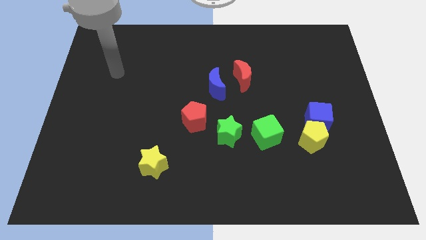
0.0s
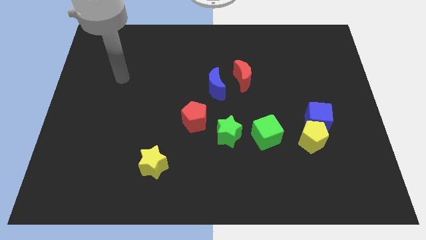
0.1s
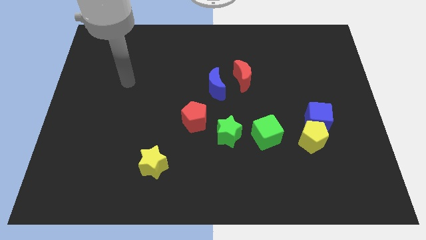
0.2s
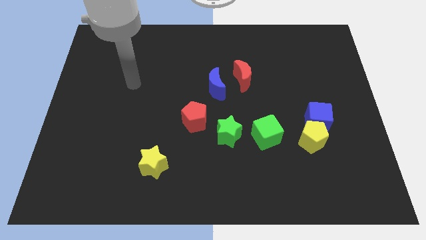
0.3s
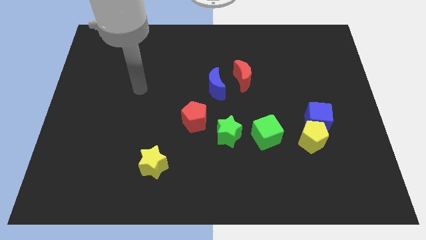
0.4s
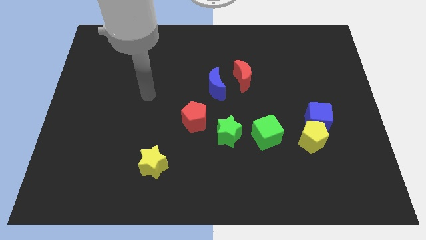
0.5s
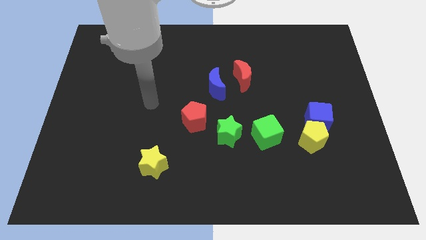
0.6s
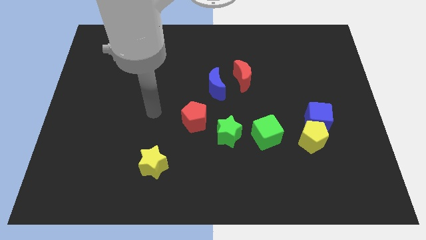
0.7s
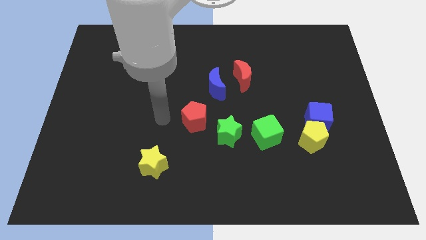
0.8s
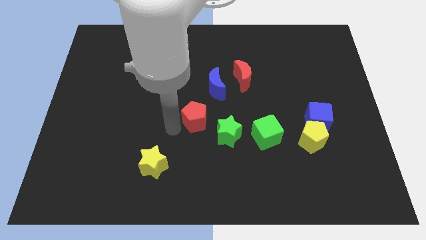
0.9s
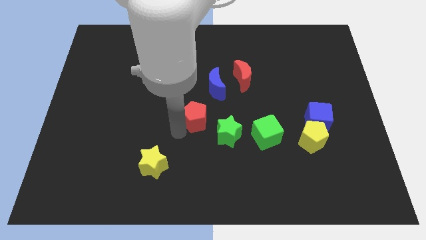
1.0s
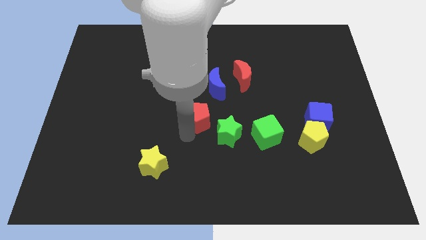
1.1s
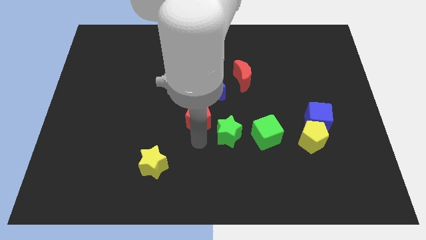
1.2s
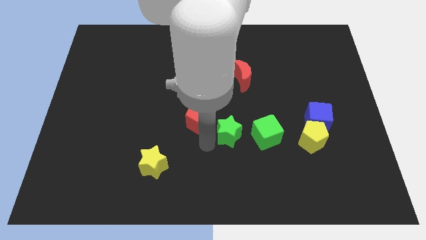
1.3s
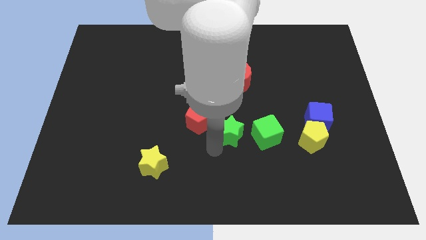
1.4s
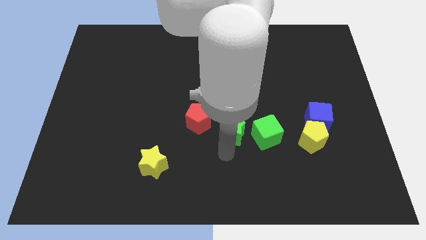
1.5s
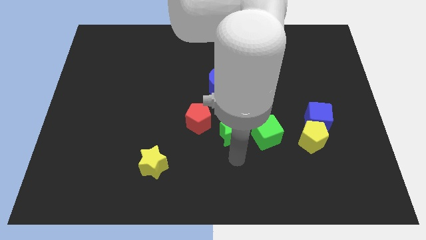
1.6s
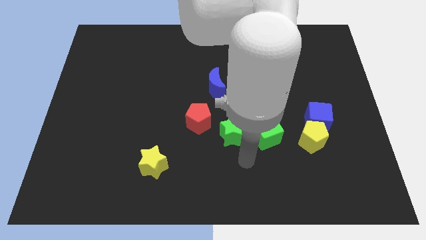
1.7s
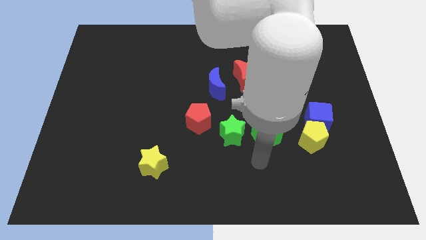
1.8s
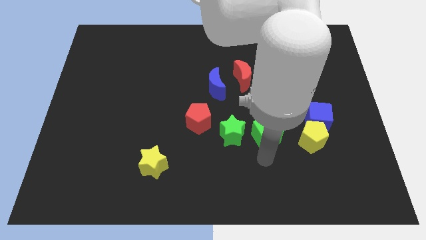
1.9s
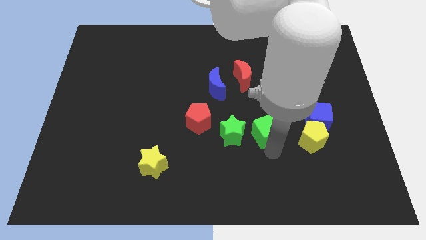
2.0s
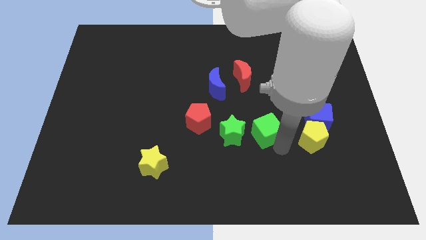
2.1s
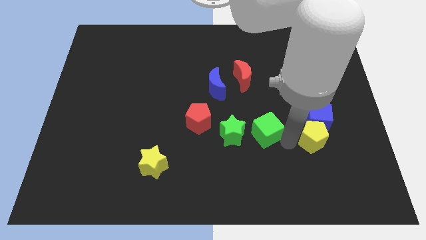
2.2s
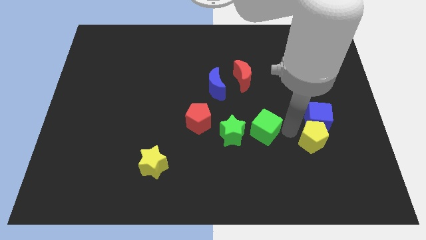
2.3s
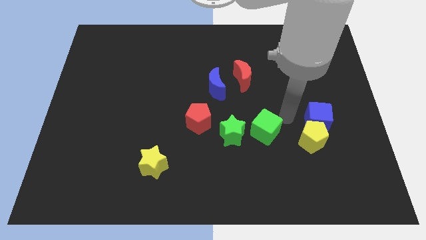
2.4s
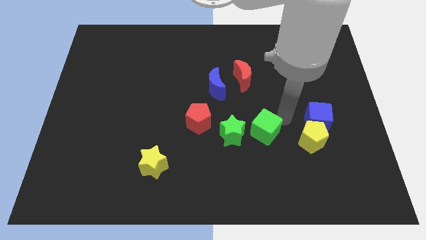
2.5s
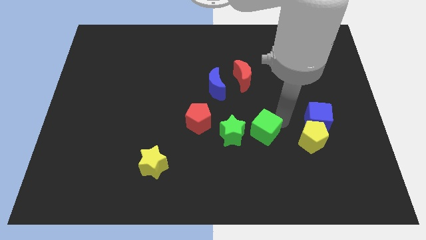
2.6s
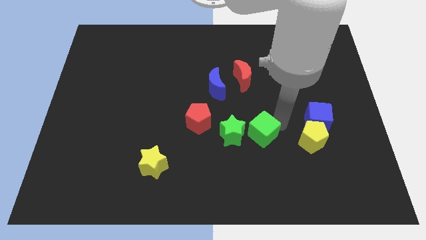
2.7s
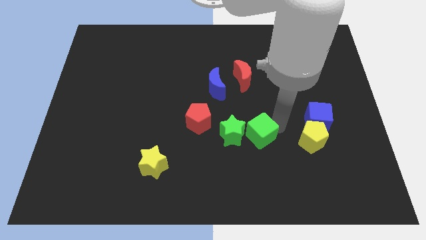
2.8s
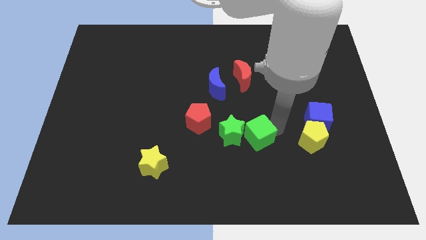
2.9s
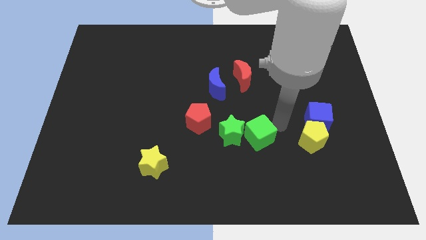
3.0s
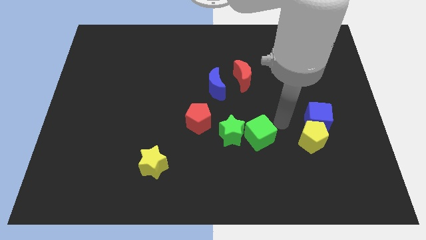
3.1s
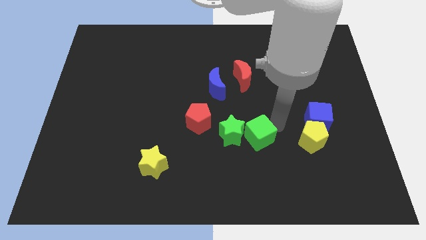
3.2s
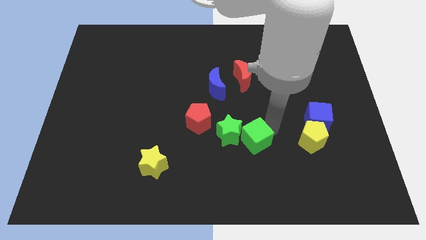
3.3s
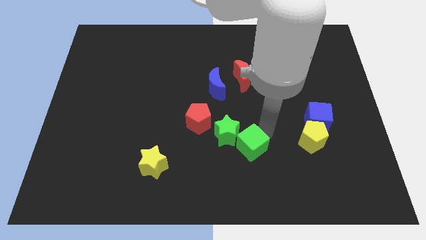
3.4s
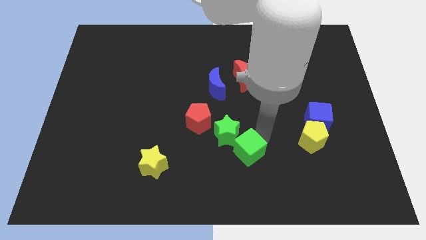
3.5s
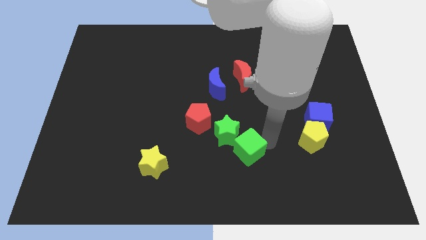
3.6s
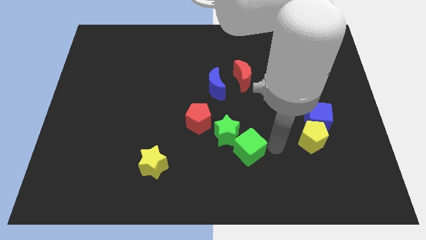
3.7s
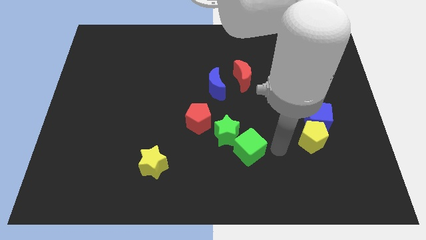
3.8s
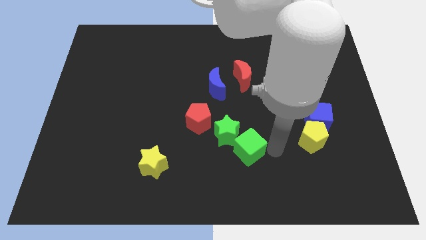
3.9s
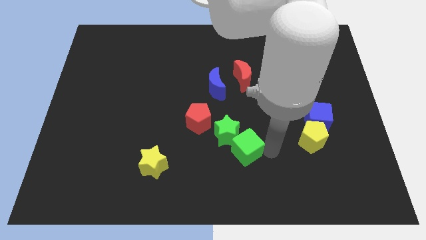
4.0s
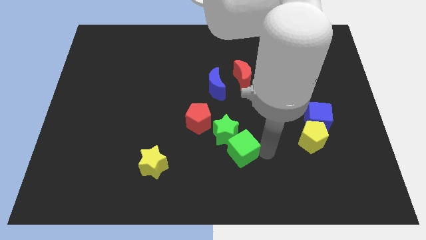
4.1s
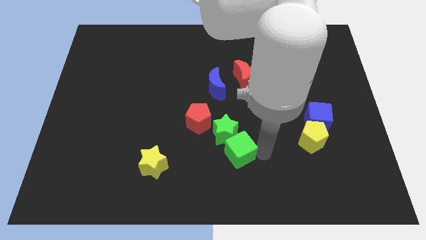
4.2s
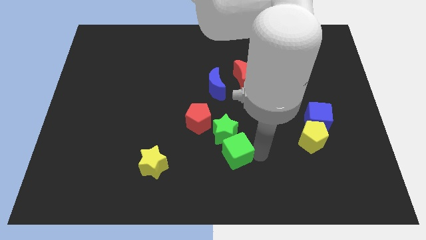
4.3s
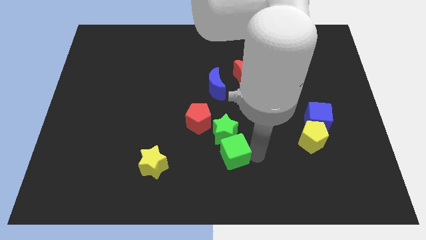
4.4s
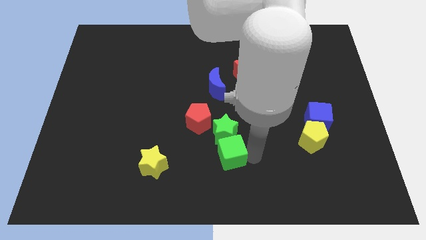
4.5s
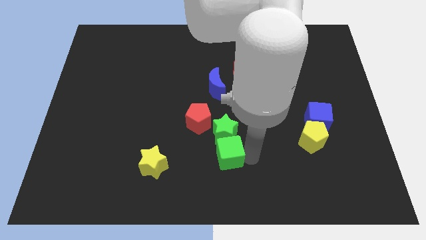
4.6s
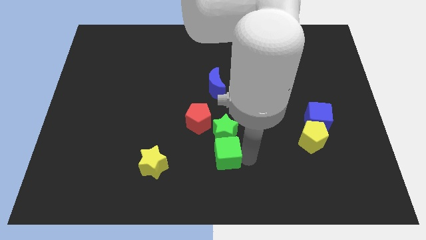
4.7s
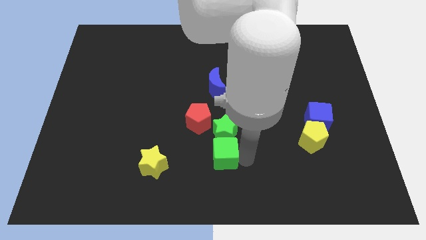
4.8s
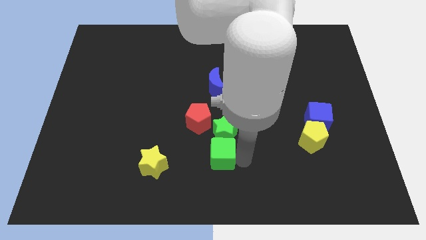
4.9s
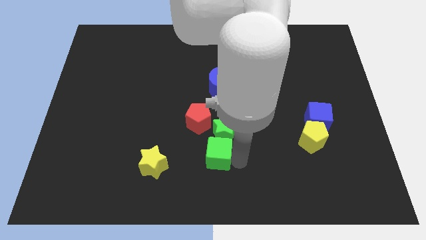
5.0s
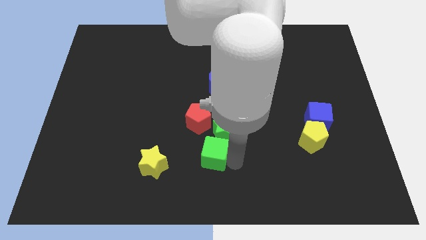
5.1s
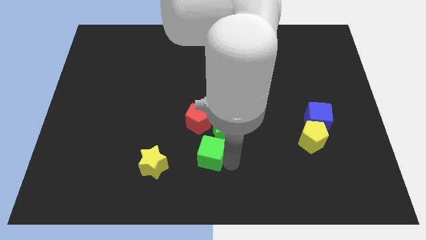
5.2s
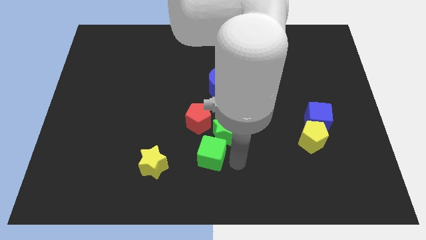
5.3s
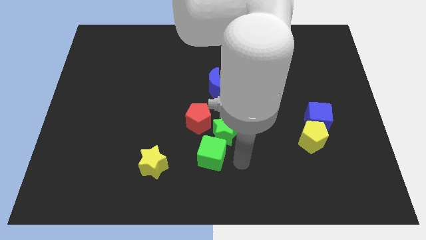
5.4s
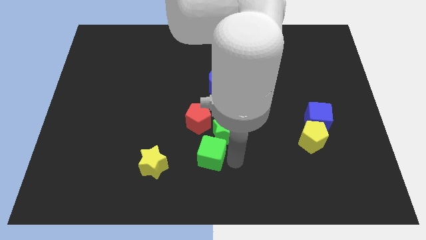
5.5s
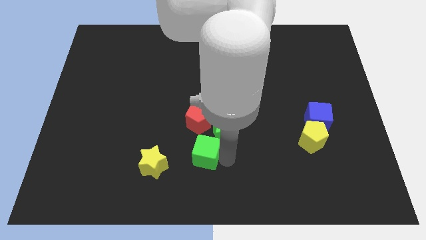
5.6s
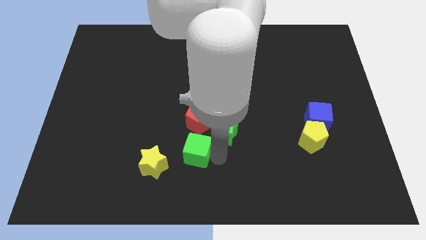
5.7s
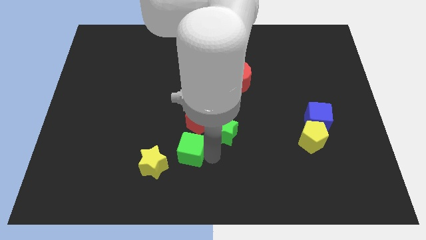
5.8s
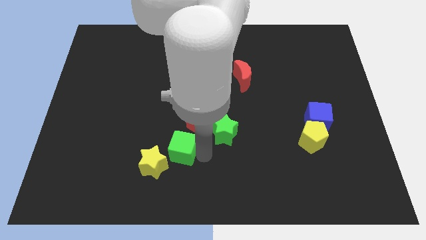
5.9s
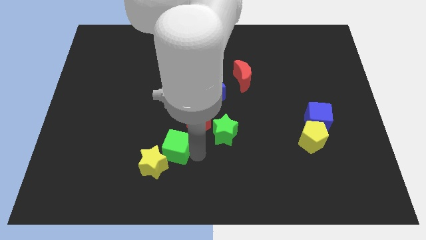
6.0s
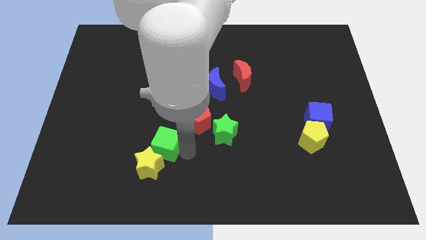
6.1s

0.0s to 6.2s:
push the green cube left

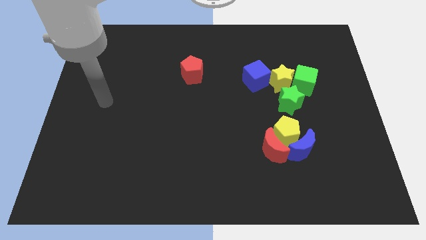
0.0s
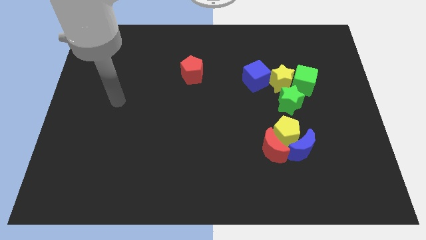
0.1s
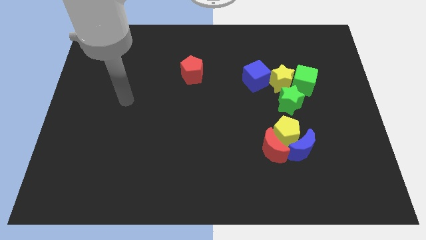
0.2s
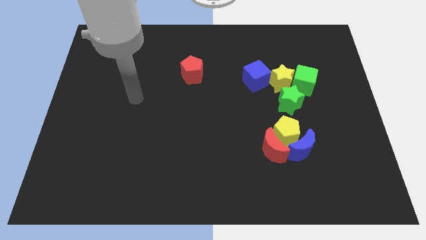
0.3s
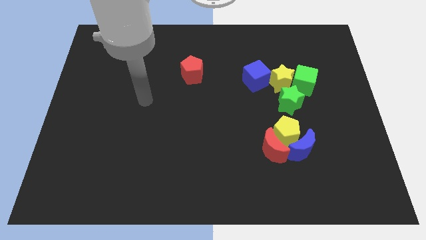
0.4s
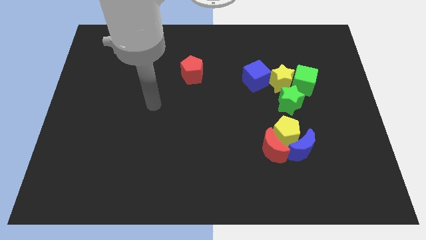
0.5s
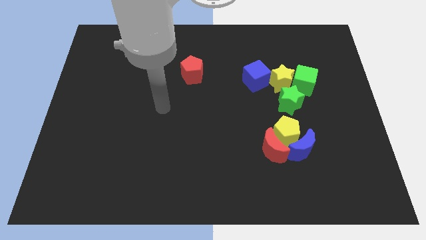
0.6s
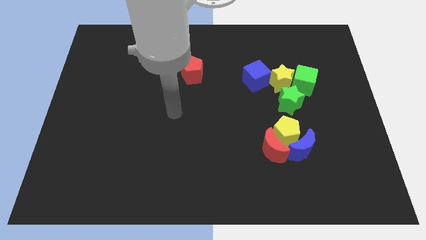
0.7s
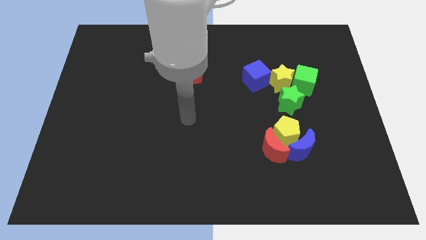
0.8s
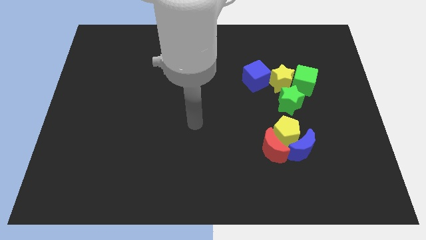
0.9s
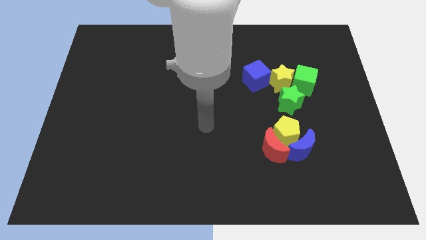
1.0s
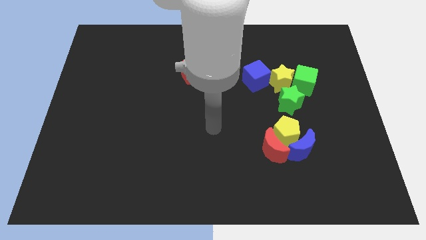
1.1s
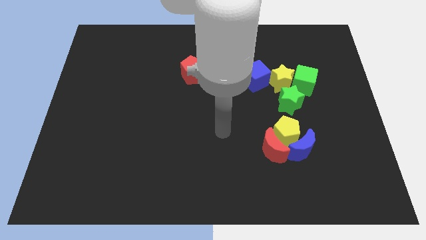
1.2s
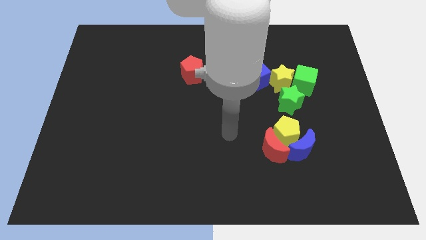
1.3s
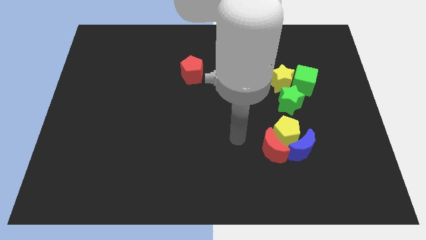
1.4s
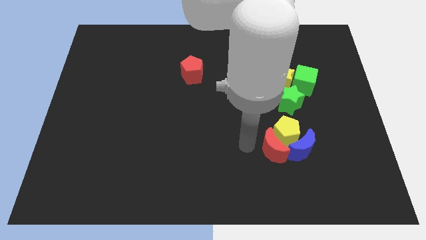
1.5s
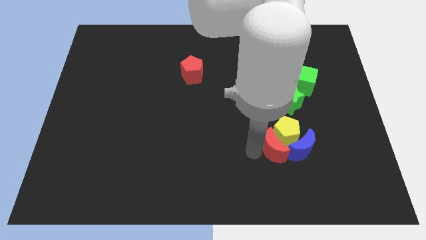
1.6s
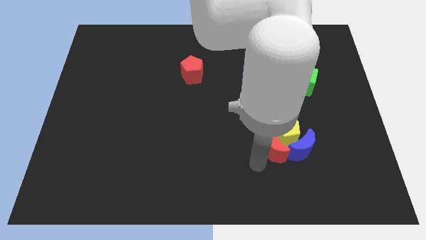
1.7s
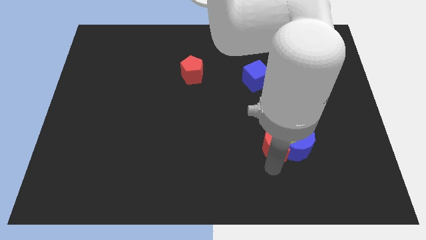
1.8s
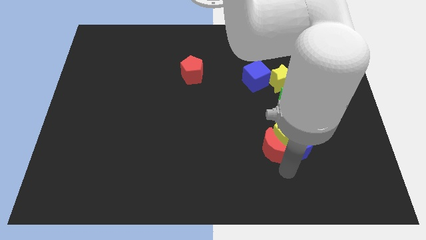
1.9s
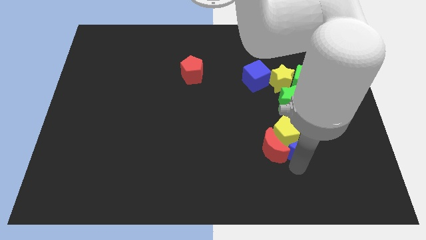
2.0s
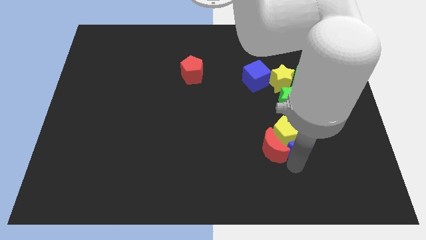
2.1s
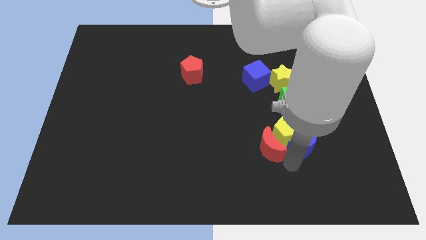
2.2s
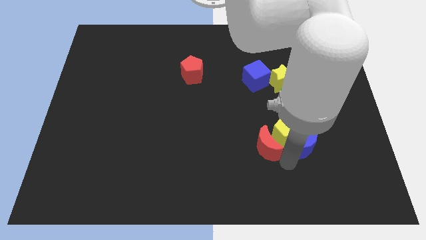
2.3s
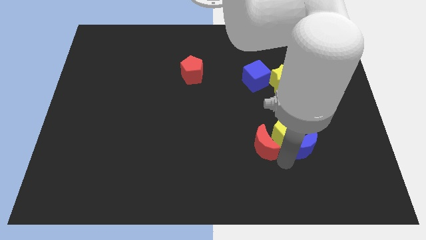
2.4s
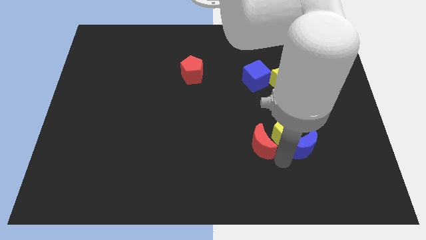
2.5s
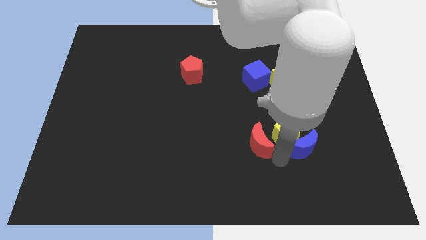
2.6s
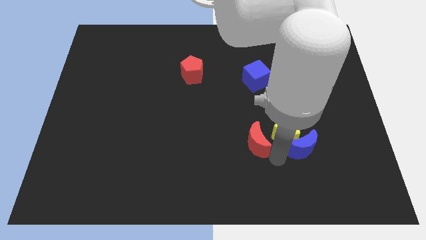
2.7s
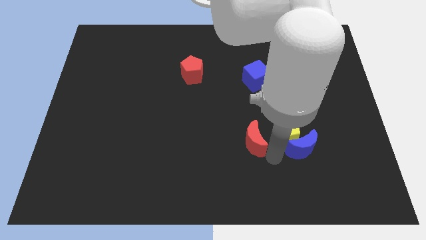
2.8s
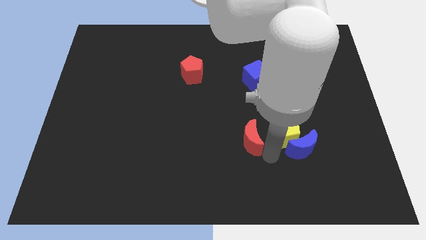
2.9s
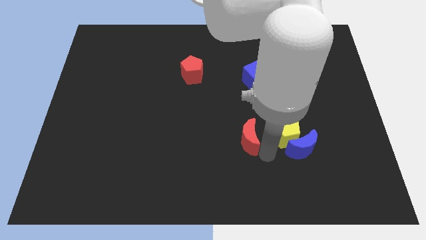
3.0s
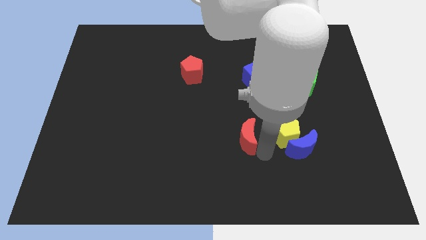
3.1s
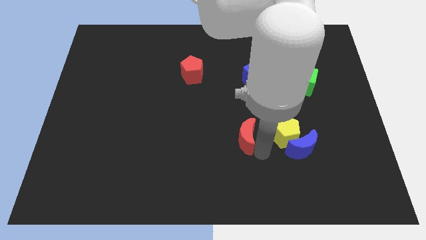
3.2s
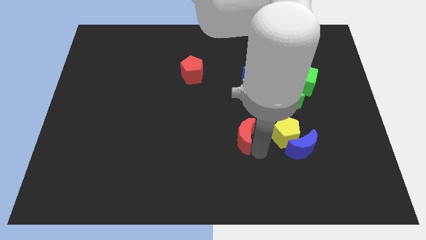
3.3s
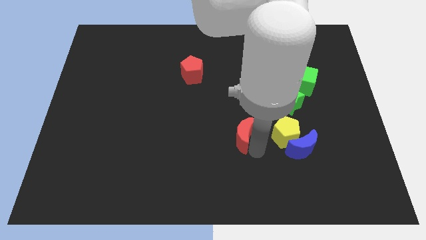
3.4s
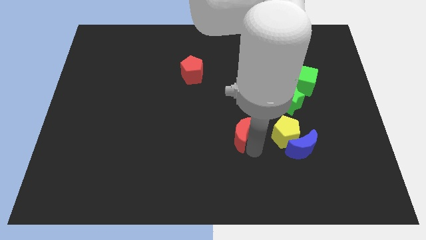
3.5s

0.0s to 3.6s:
push the red moon diagonally upwards and to the left slightly
